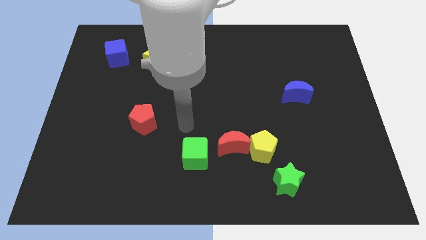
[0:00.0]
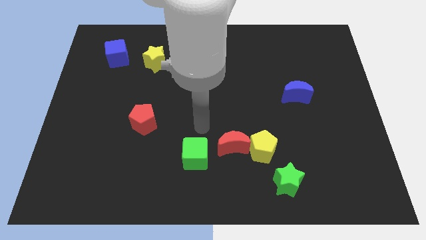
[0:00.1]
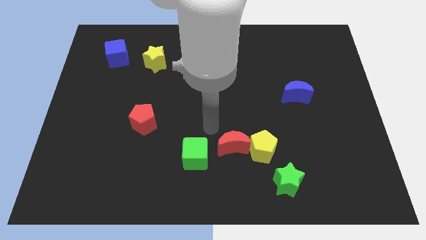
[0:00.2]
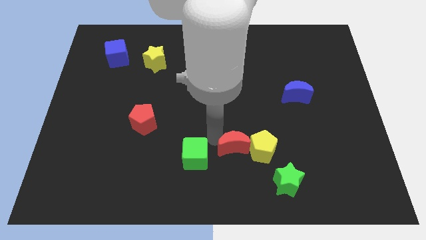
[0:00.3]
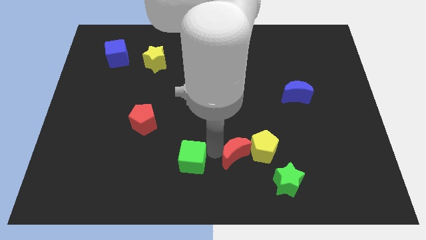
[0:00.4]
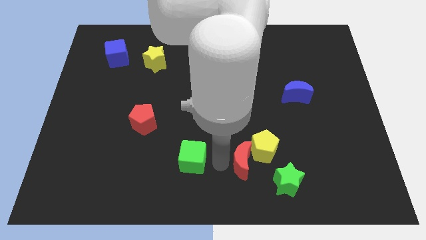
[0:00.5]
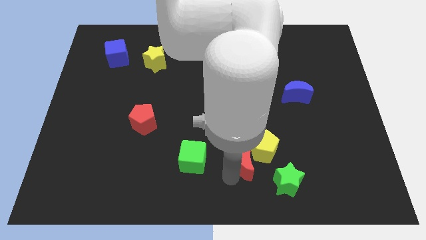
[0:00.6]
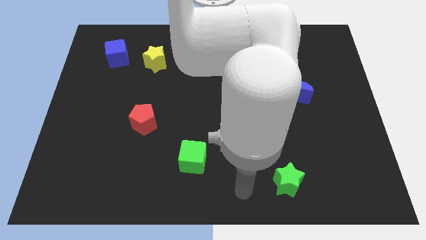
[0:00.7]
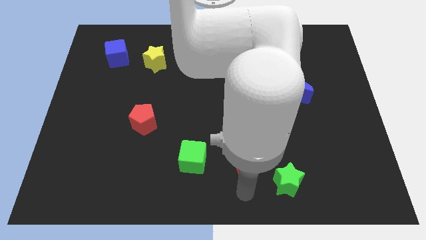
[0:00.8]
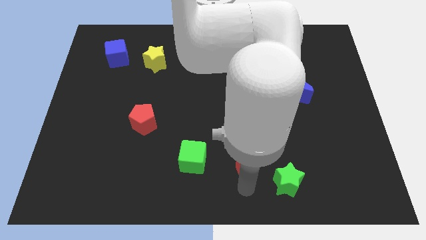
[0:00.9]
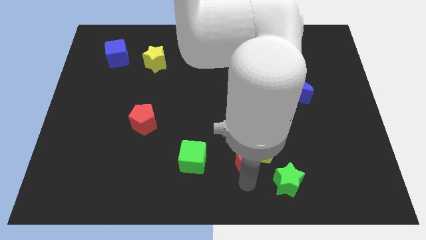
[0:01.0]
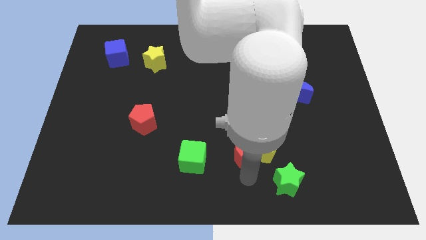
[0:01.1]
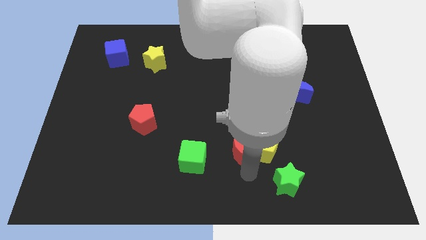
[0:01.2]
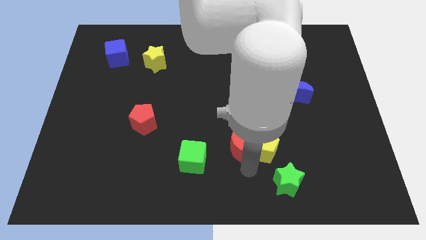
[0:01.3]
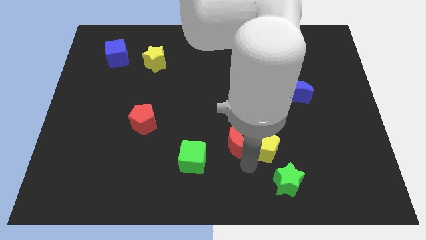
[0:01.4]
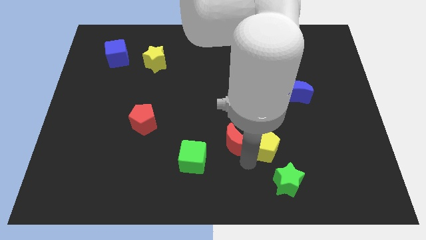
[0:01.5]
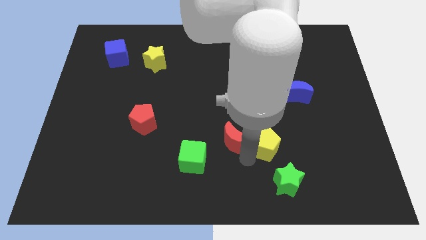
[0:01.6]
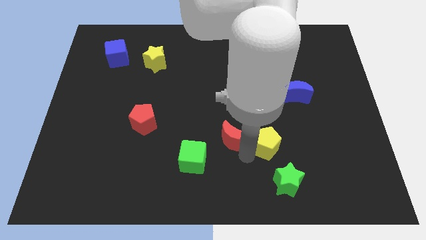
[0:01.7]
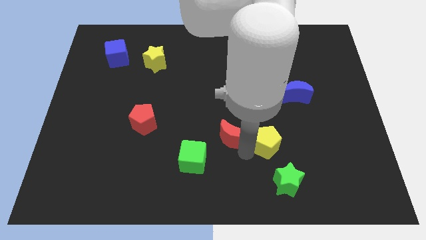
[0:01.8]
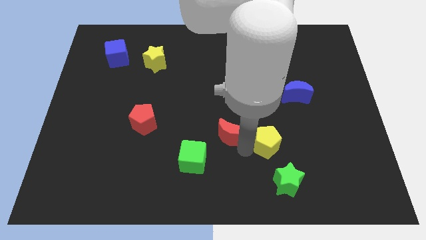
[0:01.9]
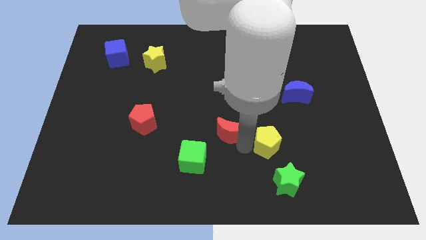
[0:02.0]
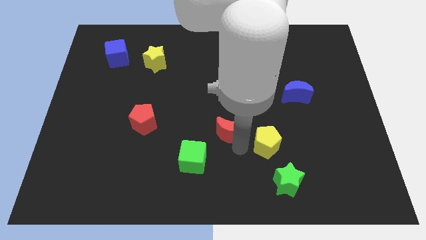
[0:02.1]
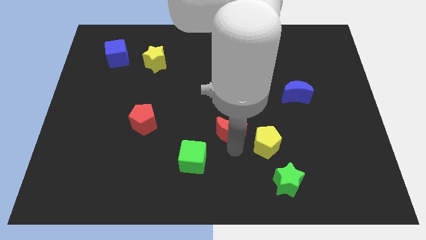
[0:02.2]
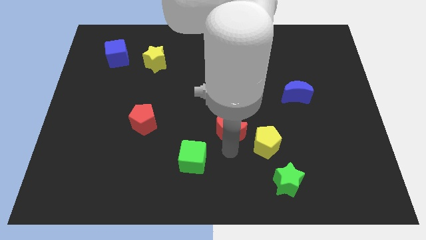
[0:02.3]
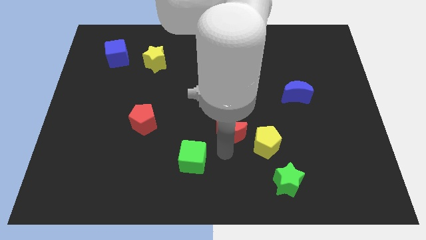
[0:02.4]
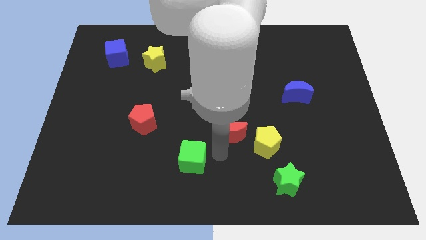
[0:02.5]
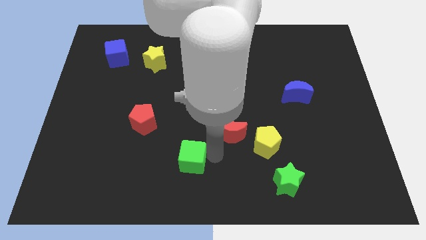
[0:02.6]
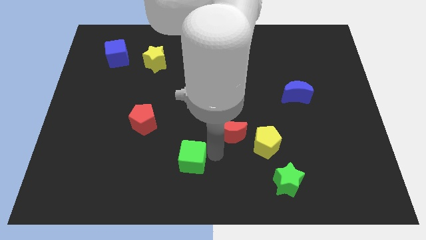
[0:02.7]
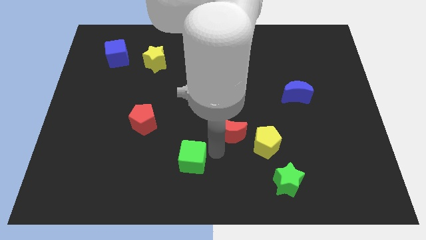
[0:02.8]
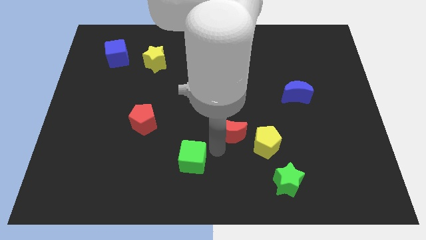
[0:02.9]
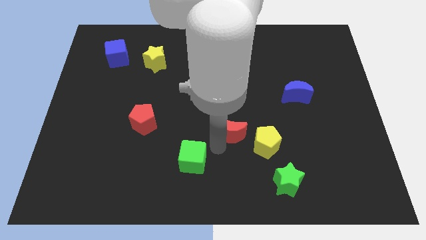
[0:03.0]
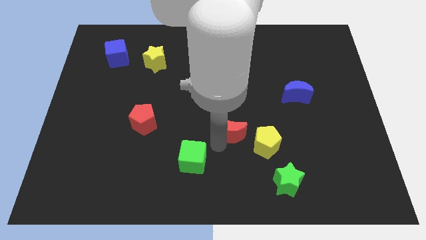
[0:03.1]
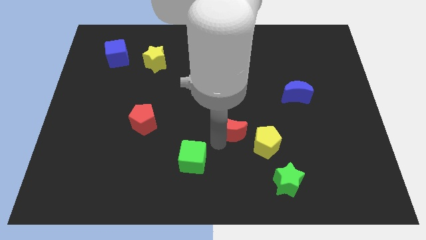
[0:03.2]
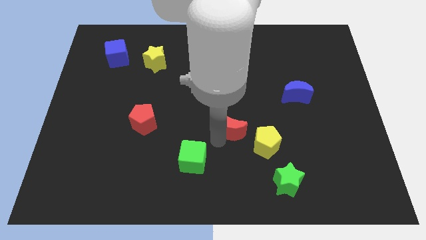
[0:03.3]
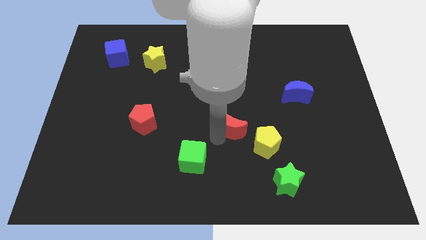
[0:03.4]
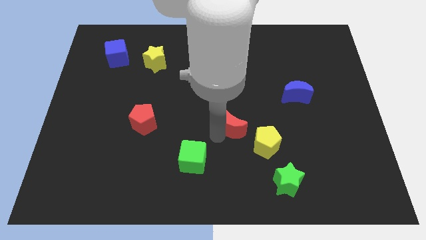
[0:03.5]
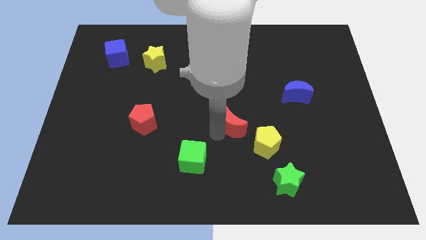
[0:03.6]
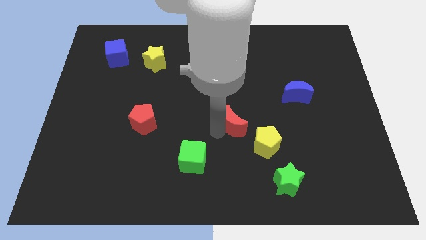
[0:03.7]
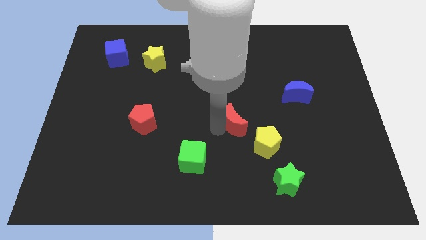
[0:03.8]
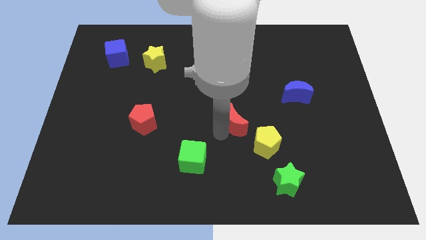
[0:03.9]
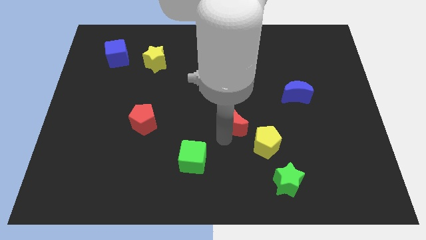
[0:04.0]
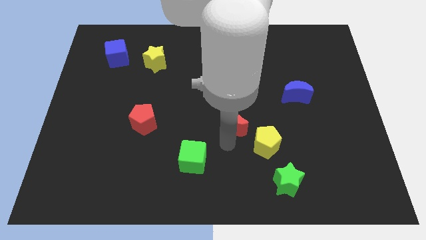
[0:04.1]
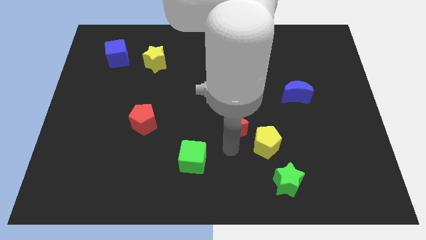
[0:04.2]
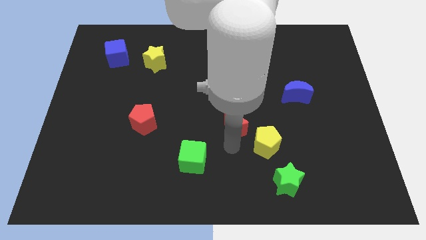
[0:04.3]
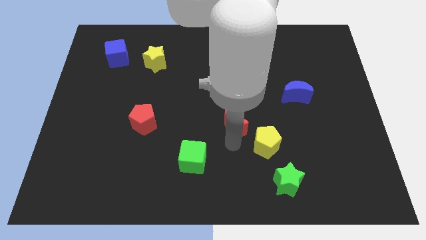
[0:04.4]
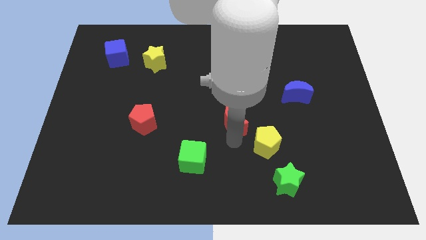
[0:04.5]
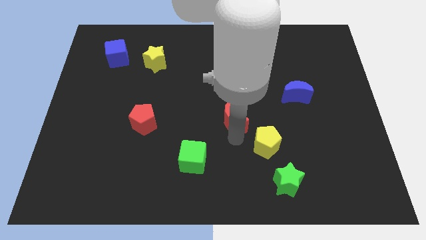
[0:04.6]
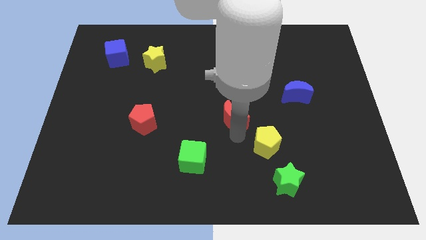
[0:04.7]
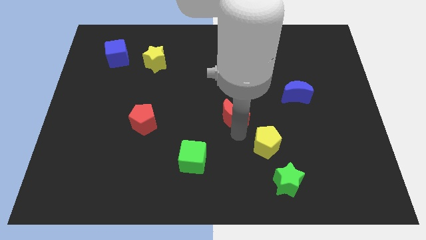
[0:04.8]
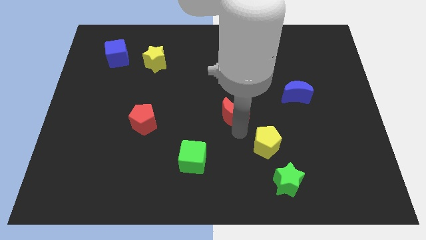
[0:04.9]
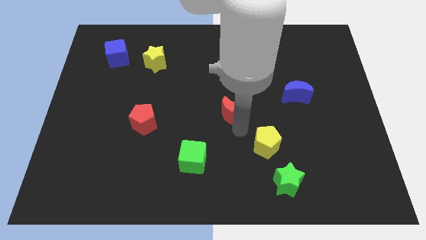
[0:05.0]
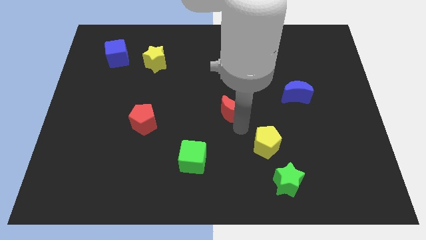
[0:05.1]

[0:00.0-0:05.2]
pull the red moon apart from the yellow pentagon and green cube

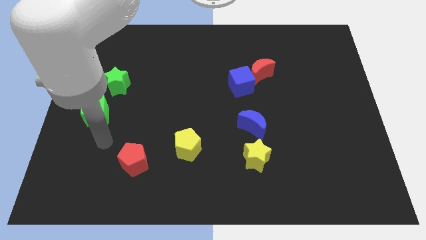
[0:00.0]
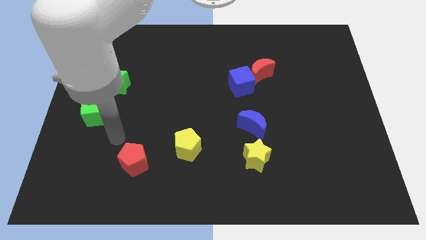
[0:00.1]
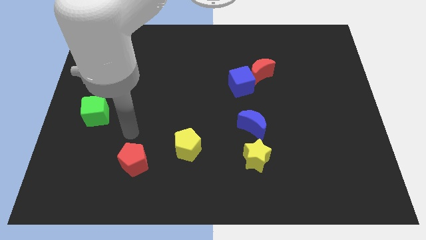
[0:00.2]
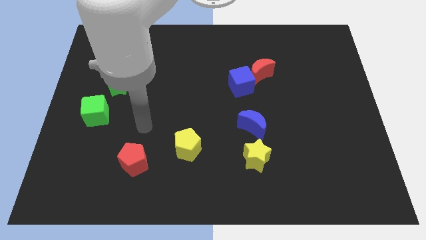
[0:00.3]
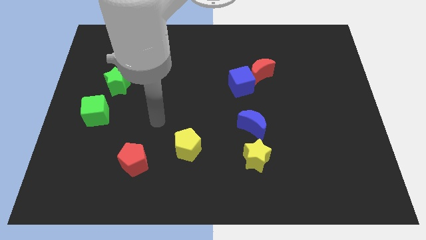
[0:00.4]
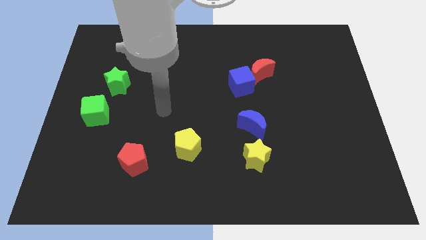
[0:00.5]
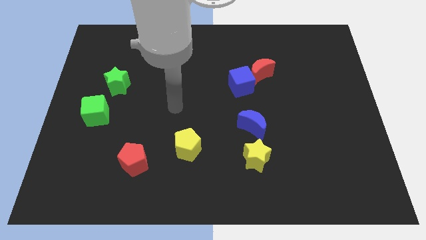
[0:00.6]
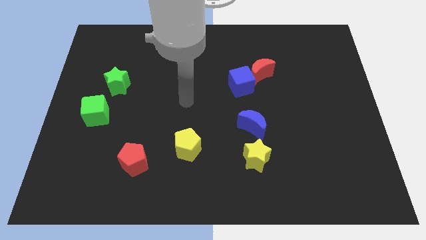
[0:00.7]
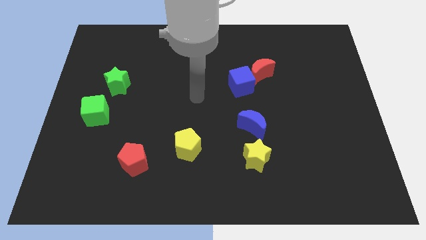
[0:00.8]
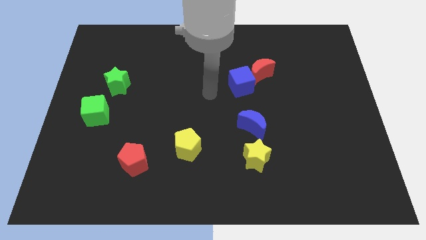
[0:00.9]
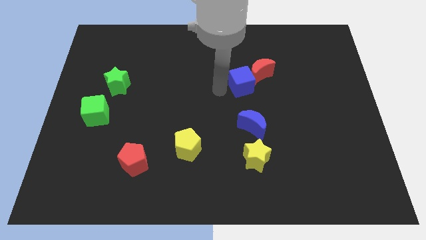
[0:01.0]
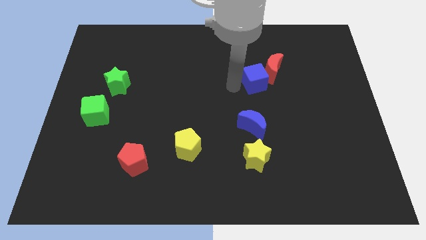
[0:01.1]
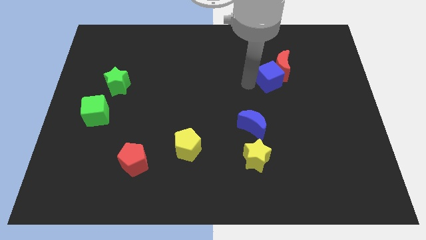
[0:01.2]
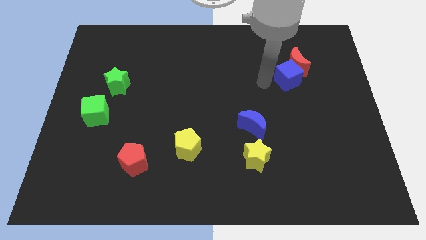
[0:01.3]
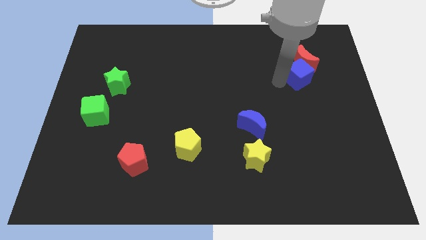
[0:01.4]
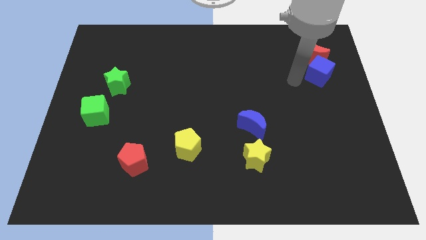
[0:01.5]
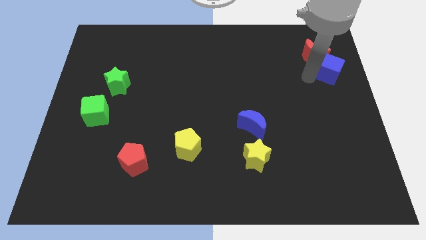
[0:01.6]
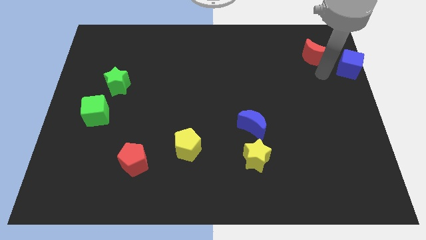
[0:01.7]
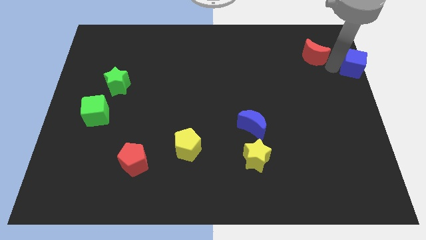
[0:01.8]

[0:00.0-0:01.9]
pull the red moon apart from the blue cube

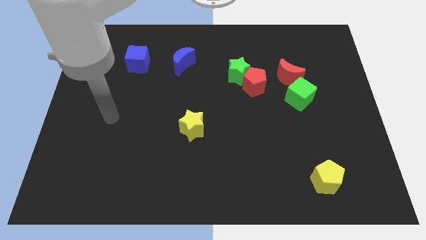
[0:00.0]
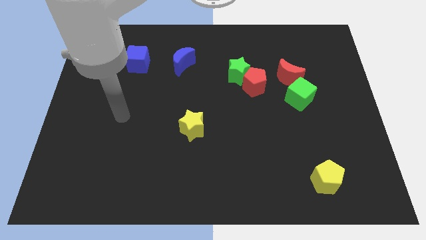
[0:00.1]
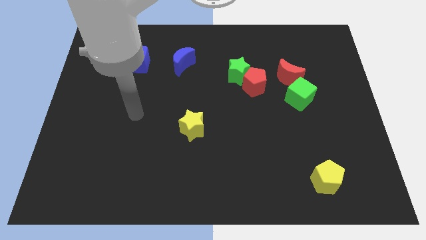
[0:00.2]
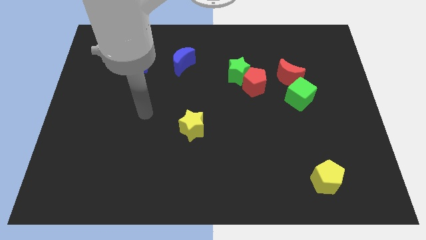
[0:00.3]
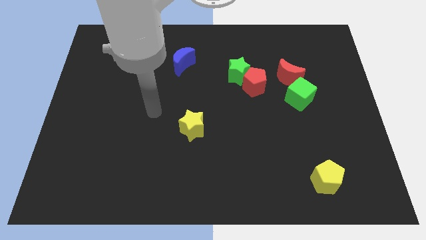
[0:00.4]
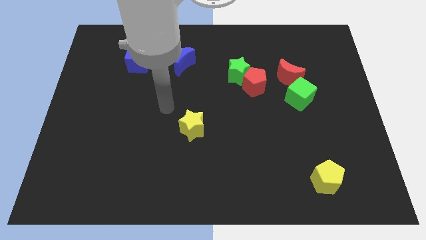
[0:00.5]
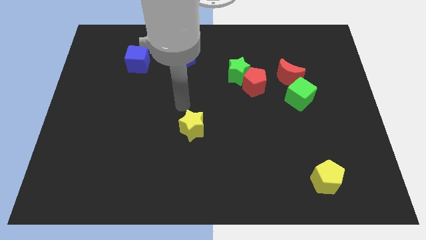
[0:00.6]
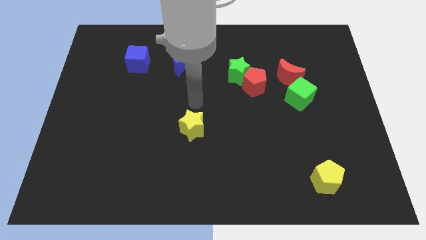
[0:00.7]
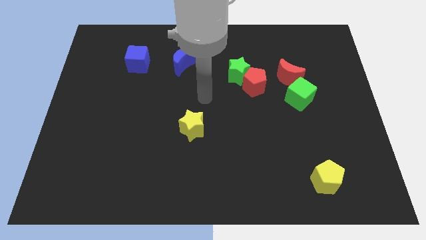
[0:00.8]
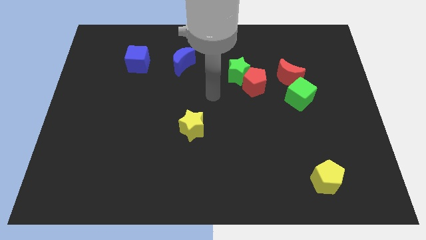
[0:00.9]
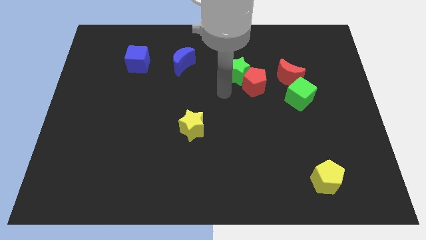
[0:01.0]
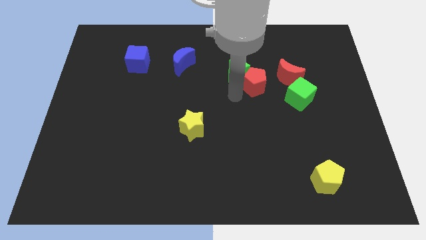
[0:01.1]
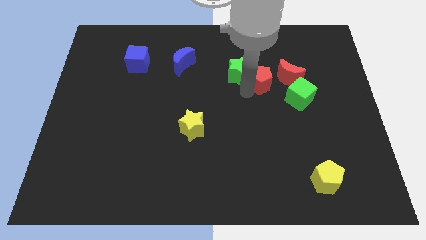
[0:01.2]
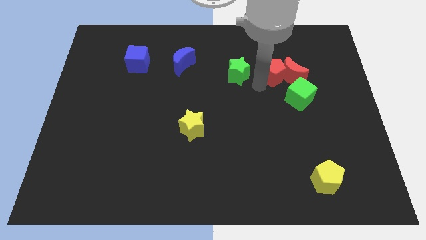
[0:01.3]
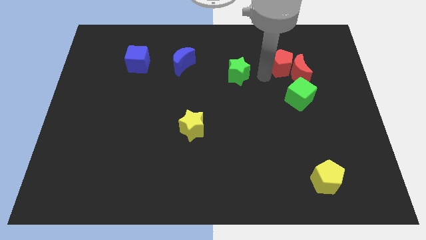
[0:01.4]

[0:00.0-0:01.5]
move the green star away from the red pentagon

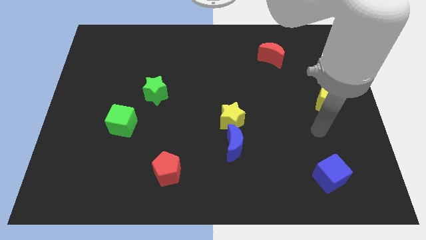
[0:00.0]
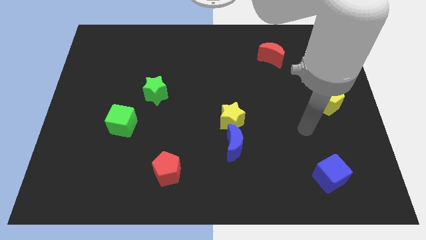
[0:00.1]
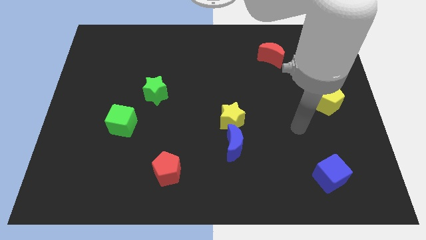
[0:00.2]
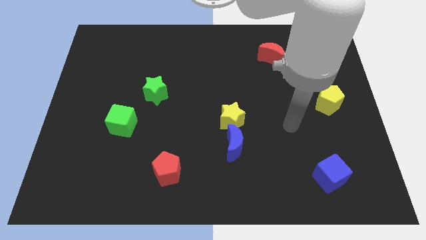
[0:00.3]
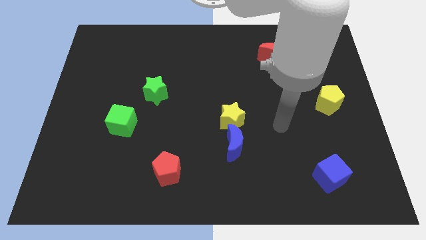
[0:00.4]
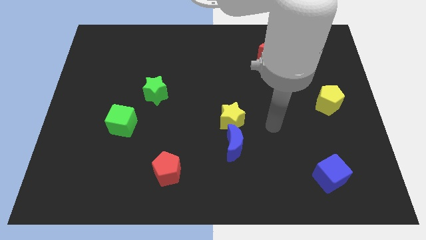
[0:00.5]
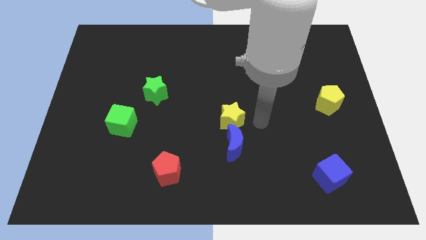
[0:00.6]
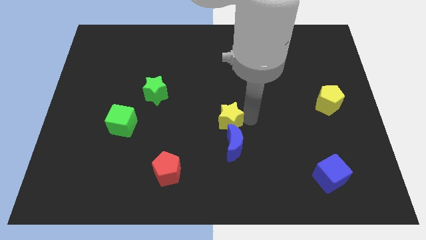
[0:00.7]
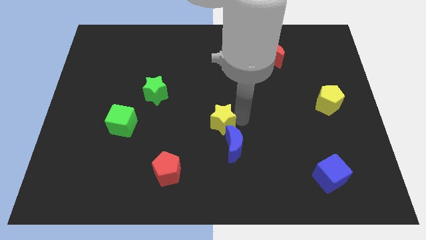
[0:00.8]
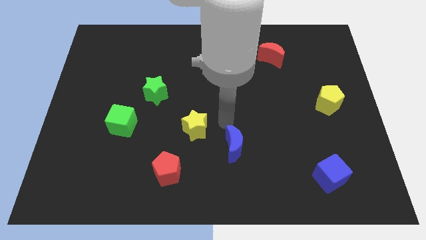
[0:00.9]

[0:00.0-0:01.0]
move the blue moon away from the yellow star
